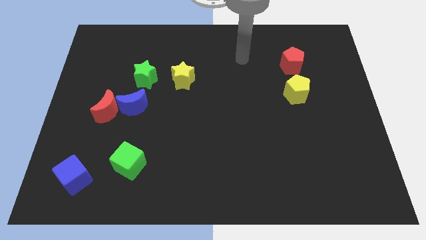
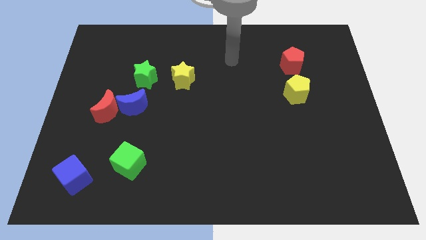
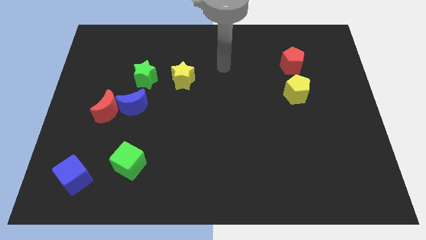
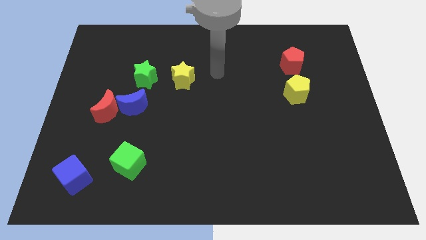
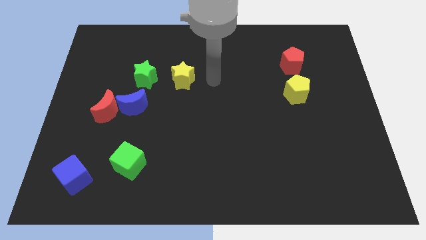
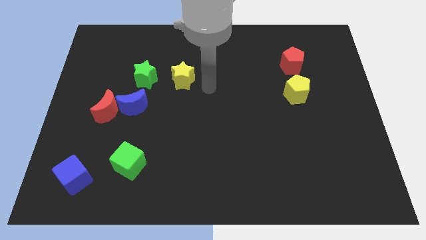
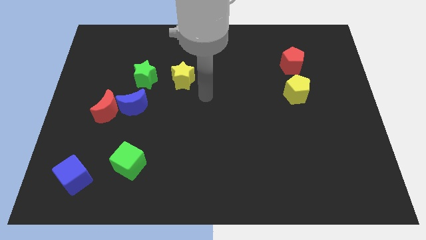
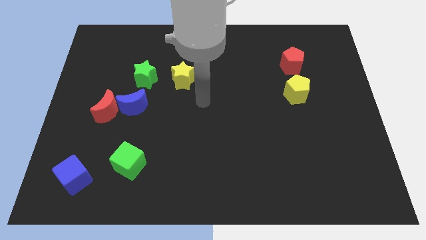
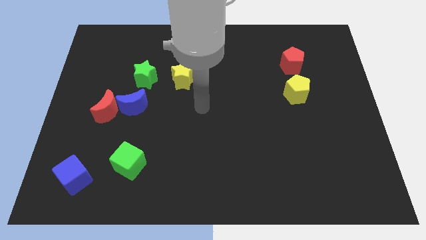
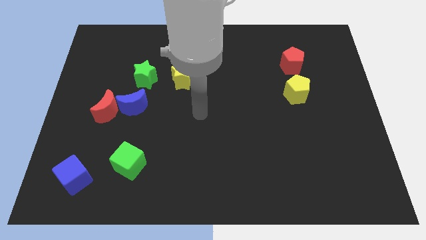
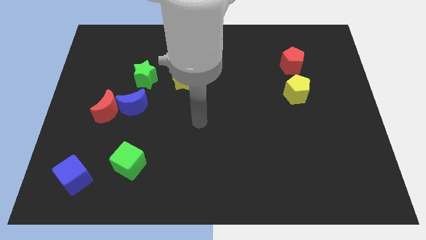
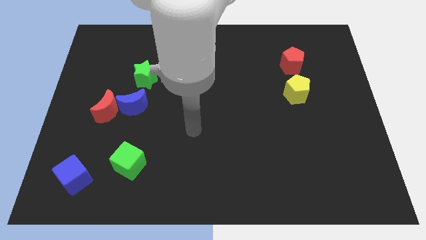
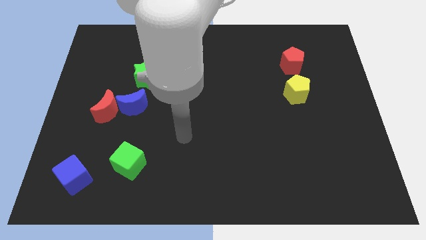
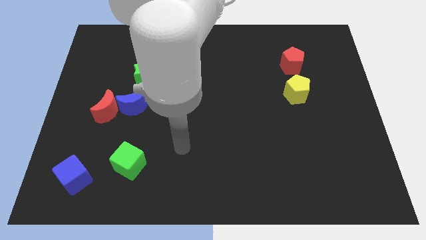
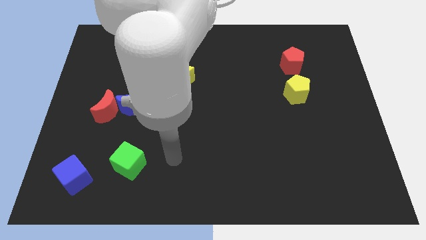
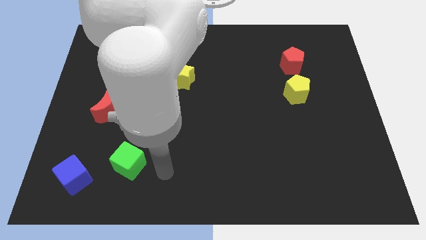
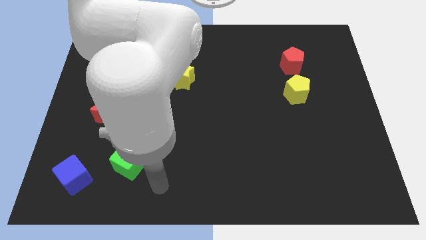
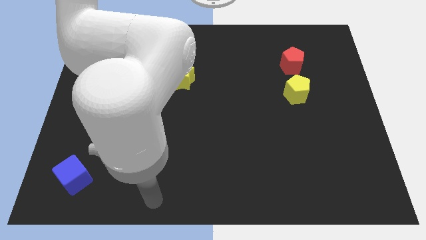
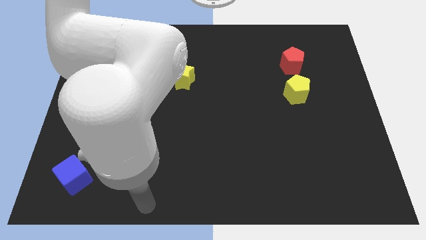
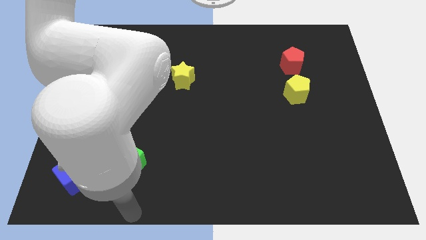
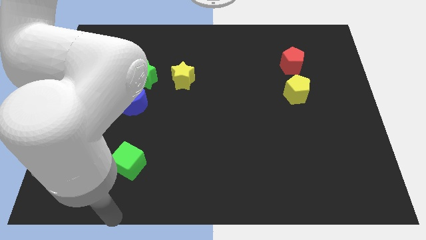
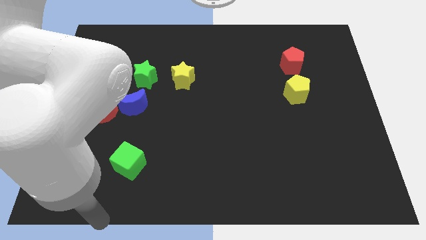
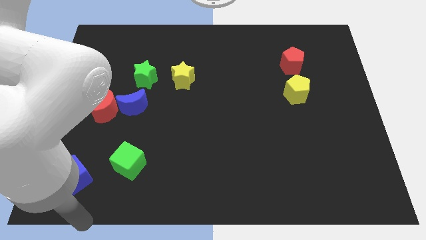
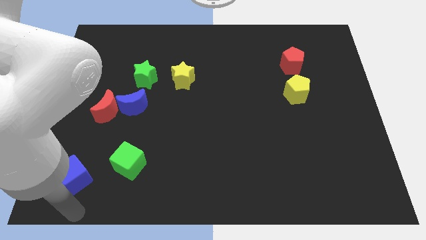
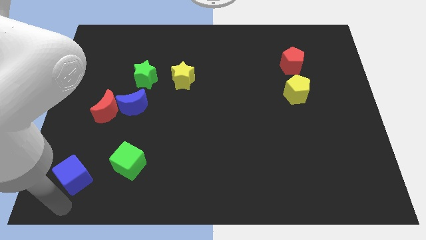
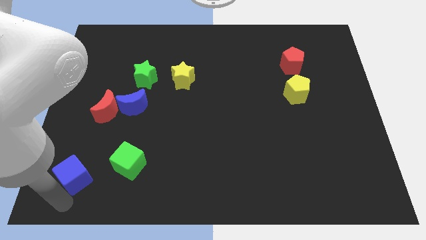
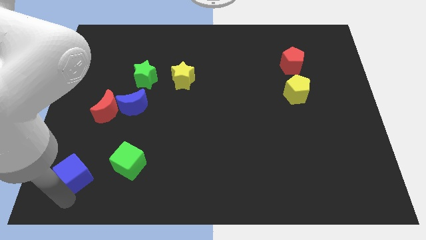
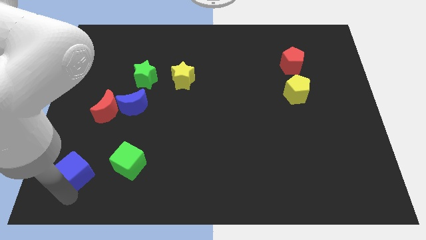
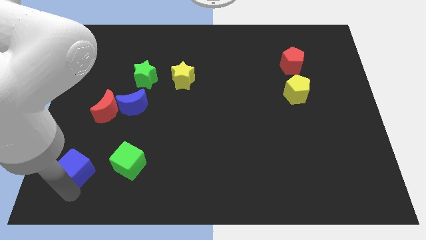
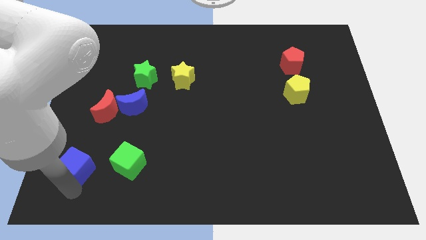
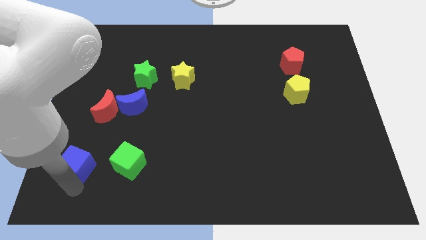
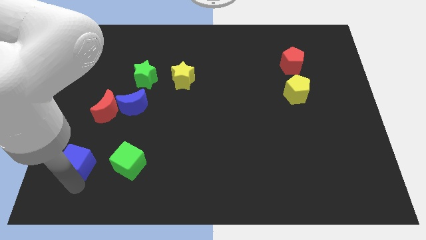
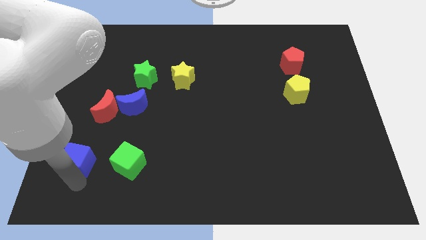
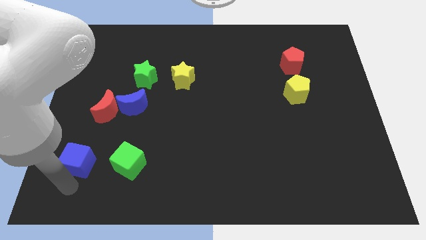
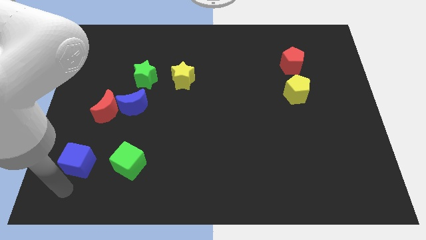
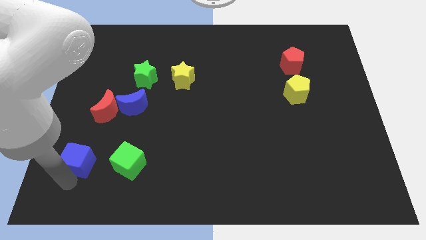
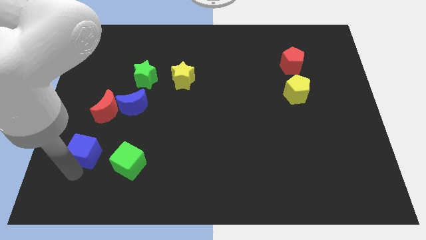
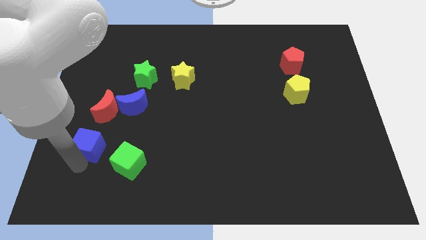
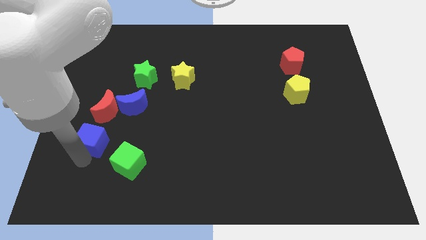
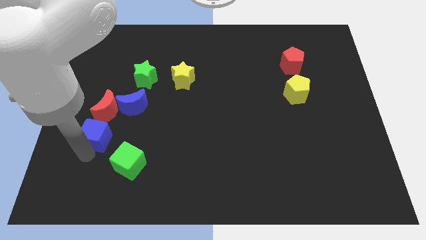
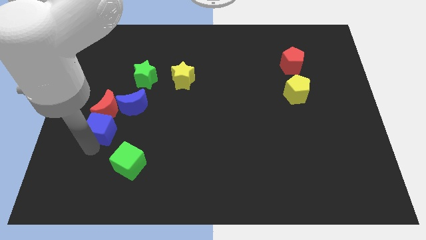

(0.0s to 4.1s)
move the blue cube close to the red moon

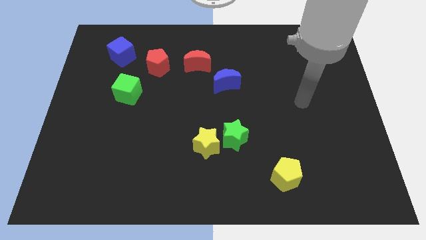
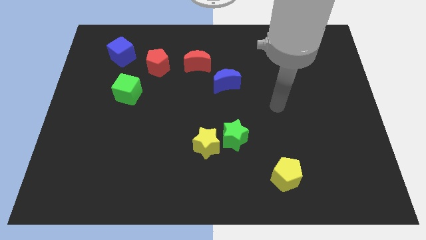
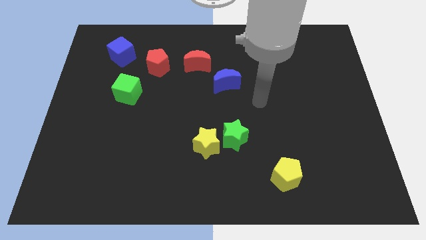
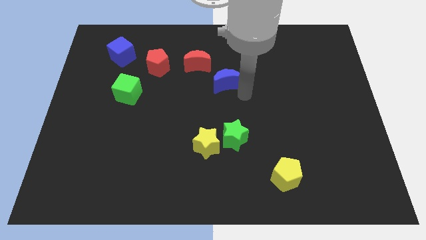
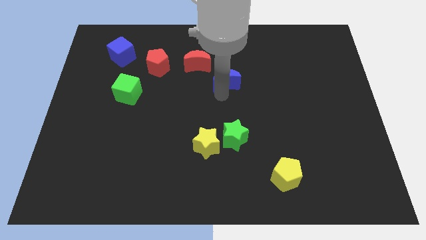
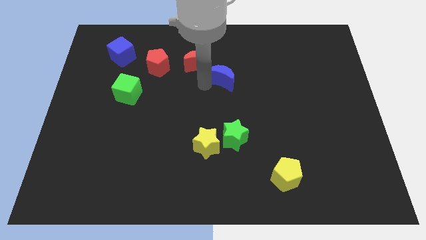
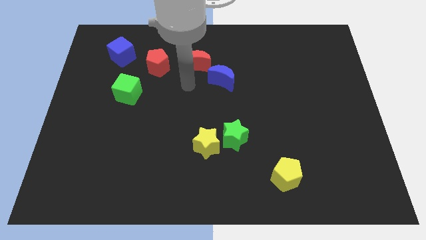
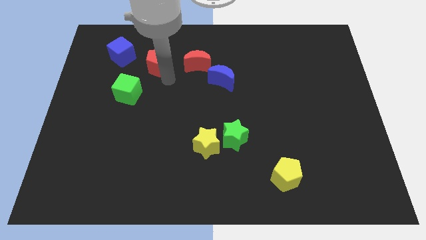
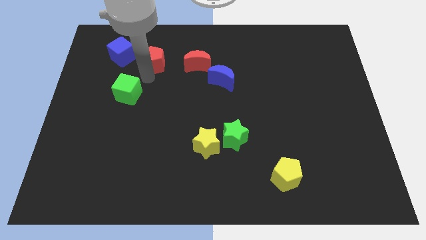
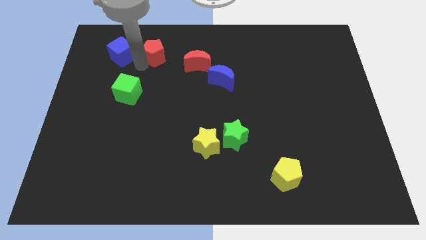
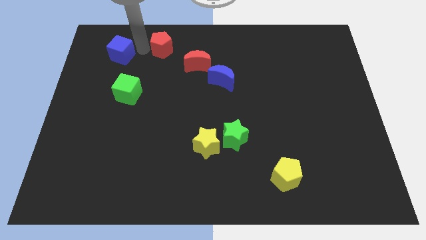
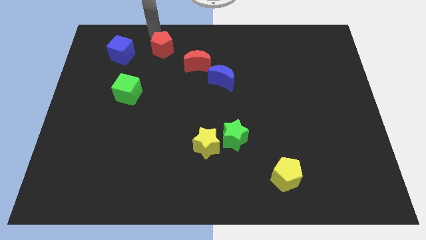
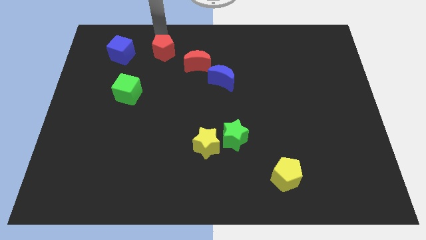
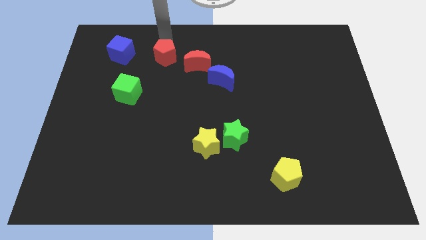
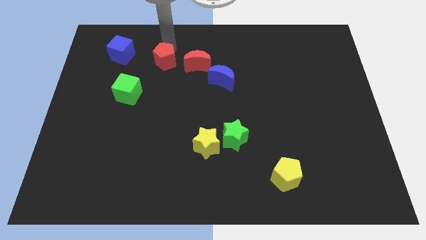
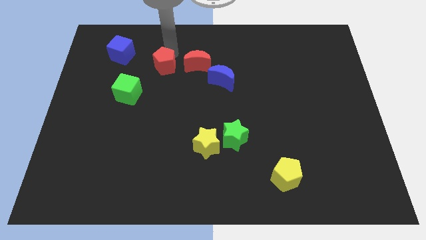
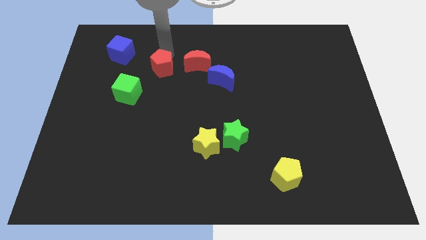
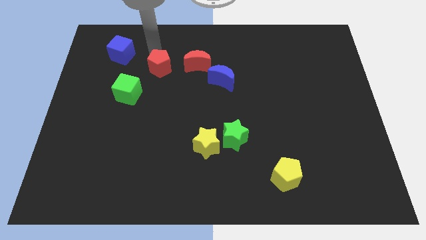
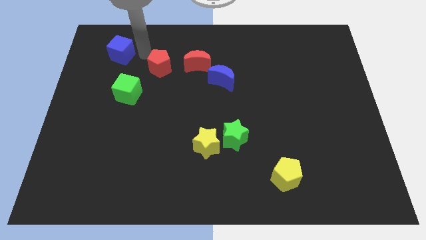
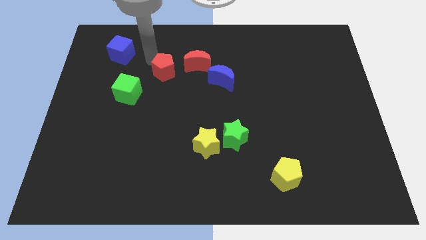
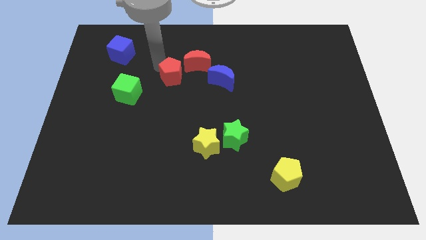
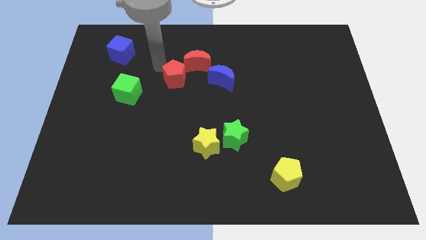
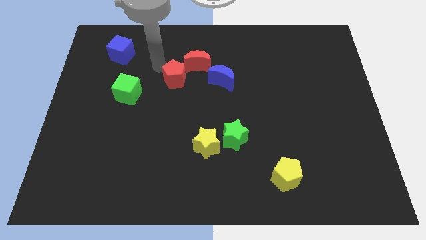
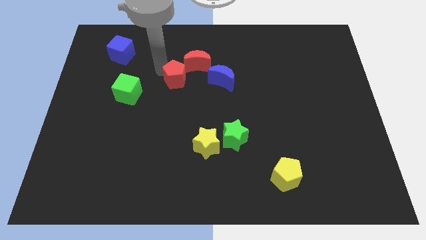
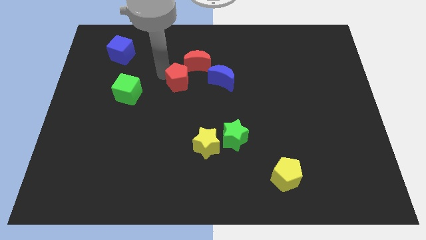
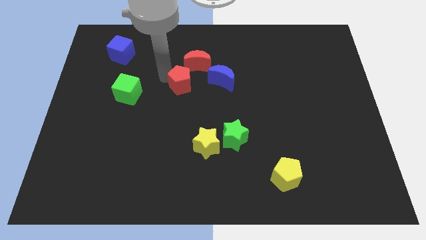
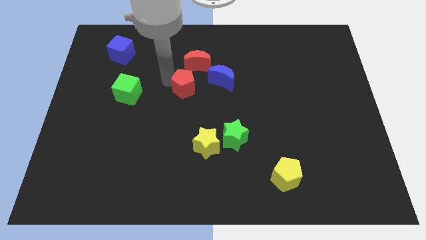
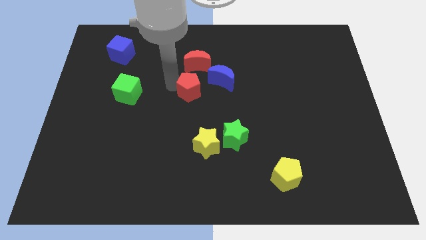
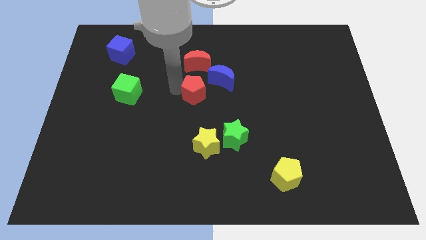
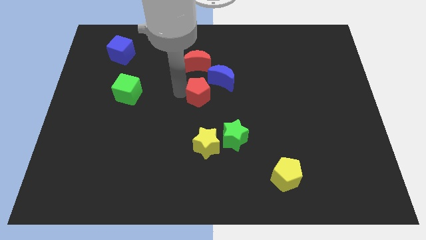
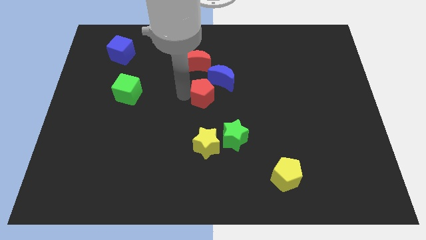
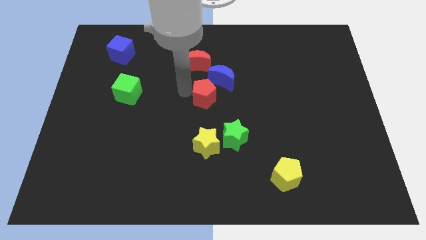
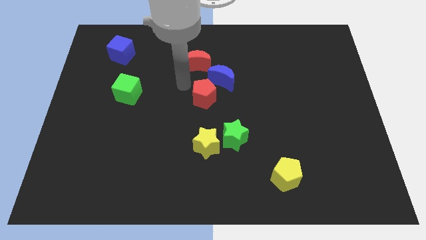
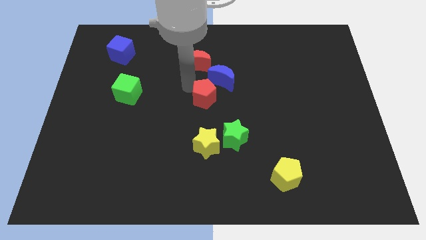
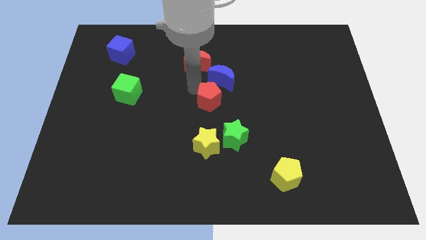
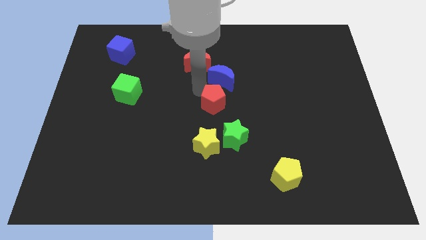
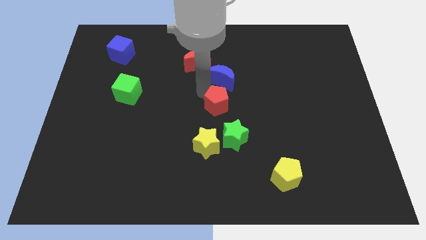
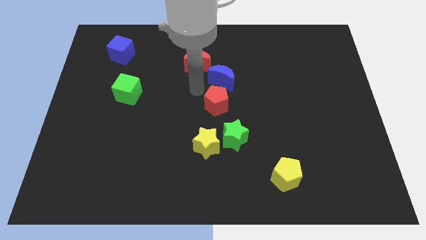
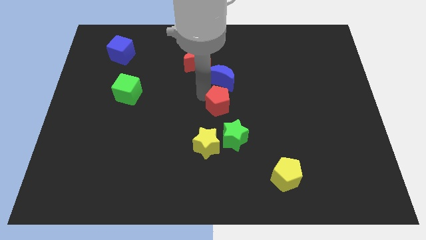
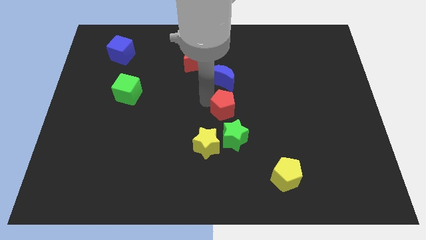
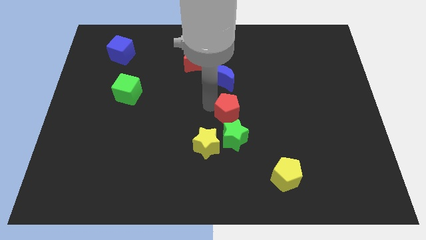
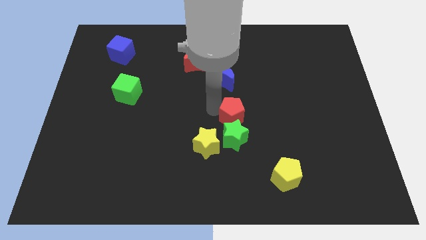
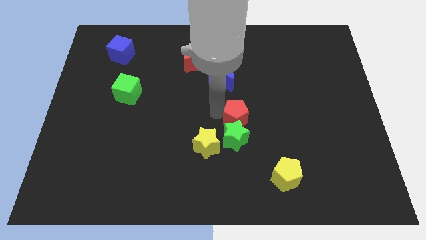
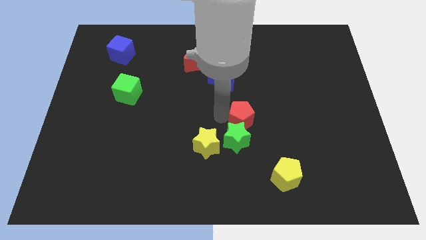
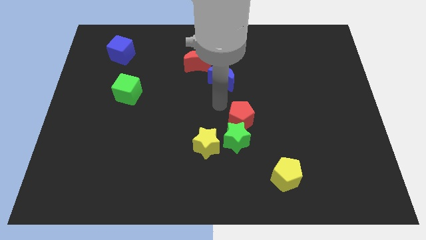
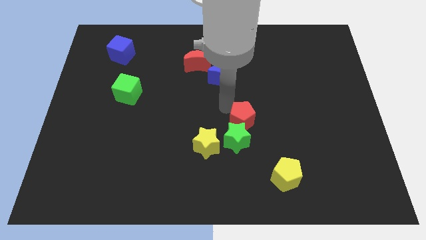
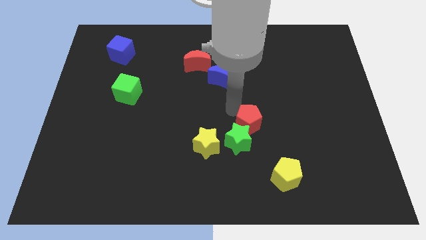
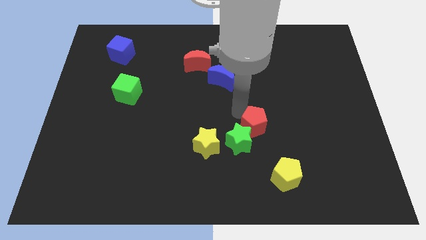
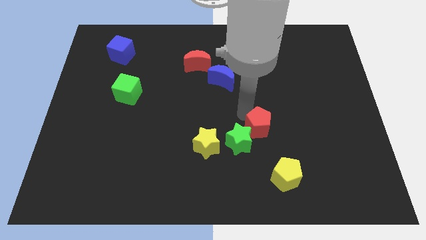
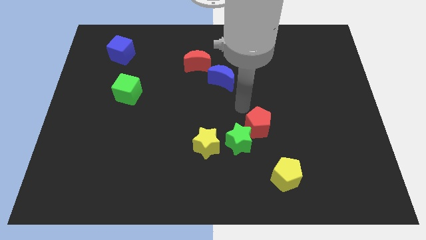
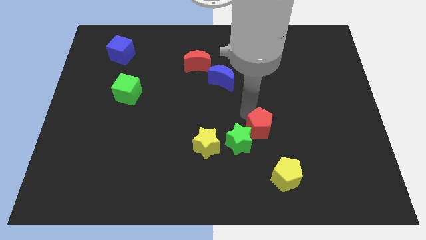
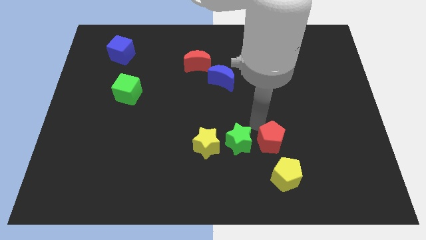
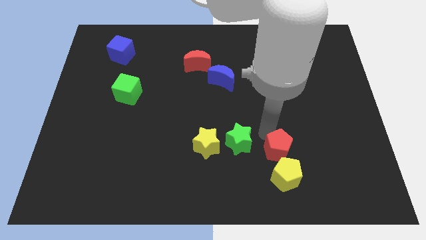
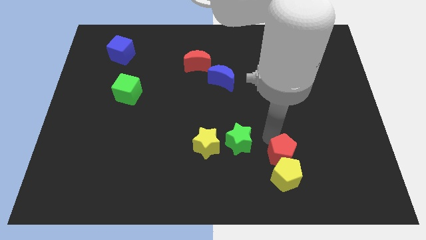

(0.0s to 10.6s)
push the red pentagon next to the yellow pentagon
